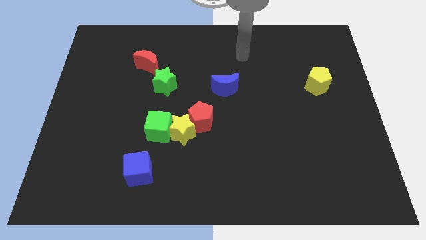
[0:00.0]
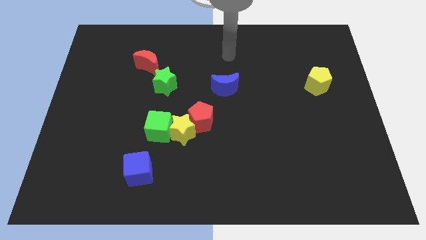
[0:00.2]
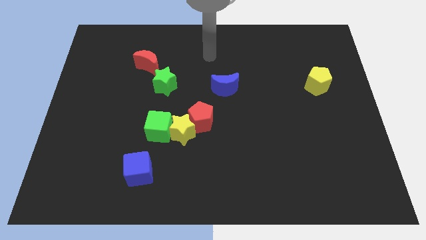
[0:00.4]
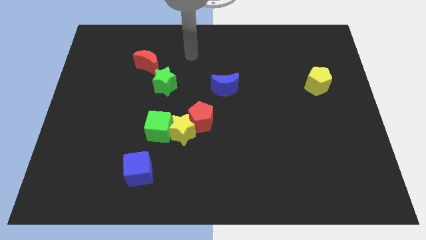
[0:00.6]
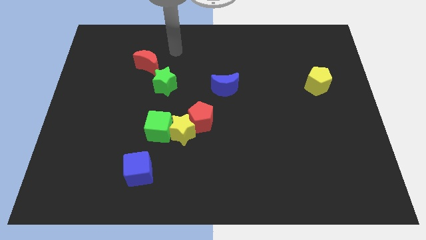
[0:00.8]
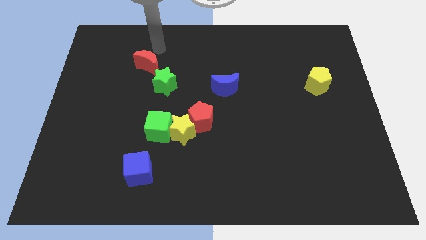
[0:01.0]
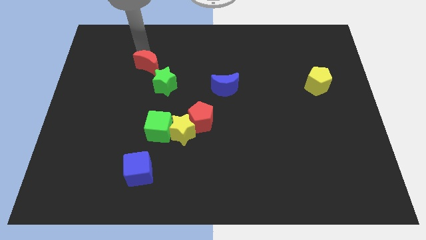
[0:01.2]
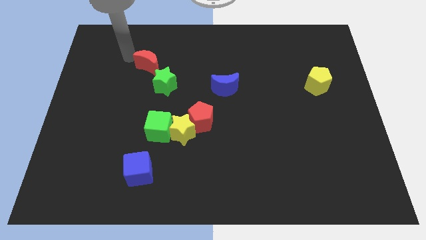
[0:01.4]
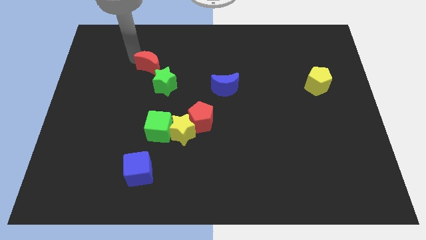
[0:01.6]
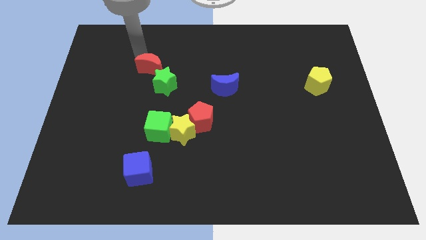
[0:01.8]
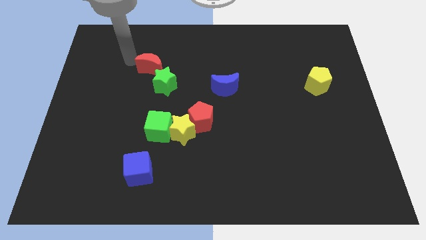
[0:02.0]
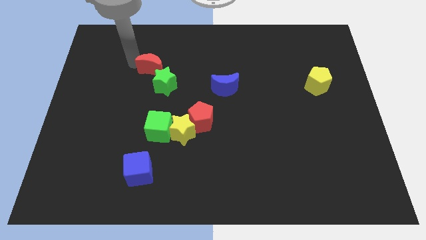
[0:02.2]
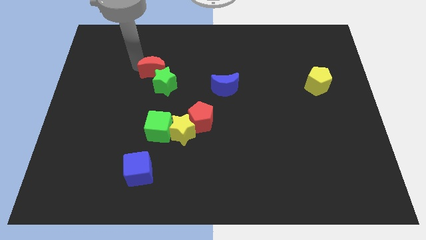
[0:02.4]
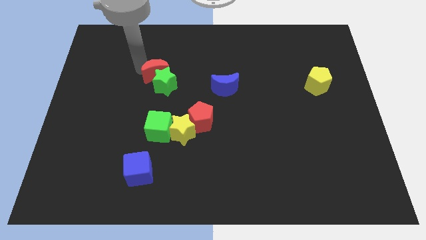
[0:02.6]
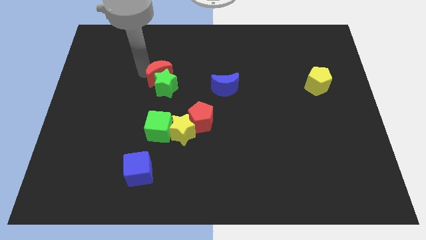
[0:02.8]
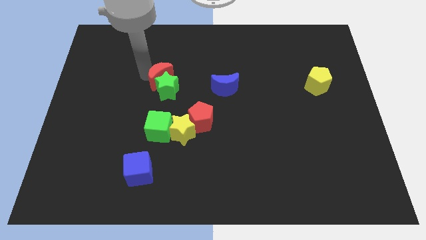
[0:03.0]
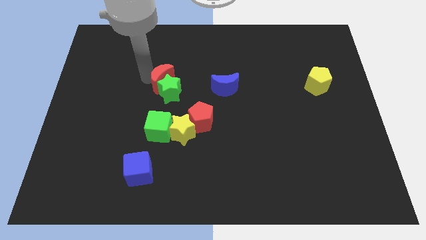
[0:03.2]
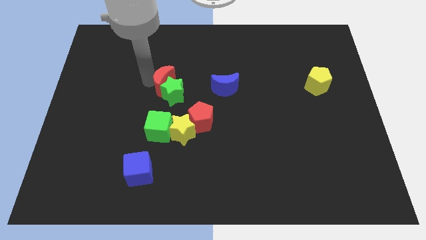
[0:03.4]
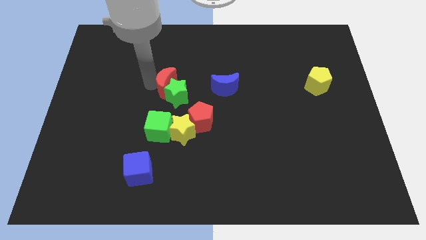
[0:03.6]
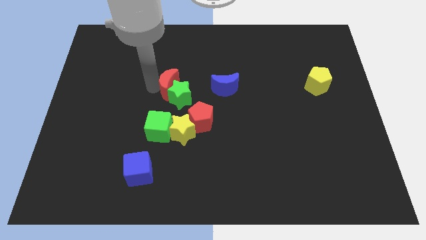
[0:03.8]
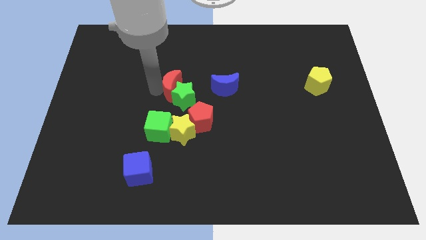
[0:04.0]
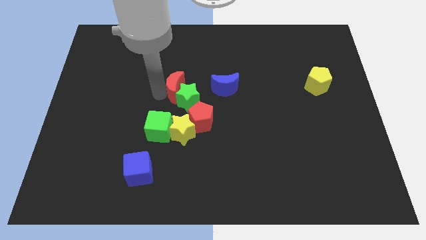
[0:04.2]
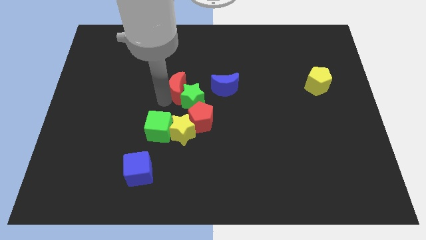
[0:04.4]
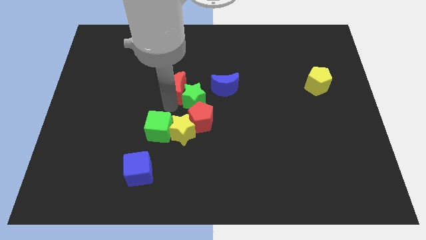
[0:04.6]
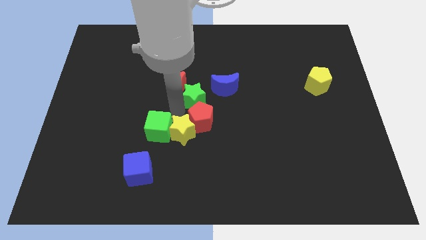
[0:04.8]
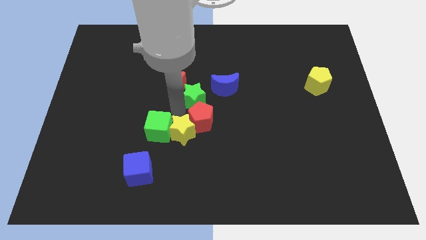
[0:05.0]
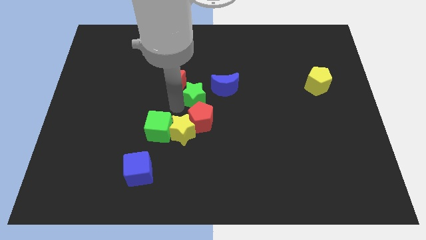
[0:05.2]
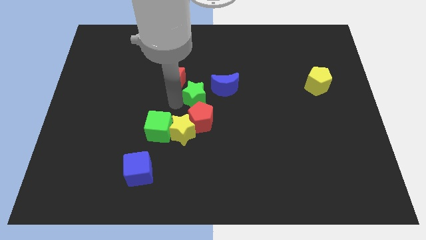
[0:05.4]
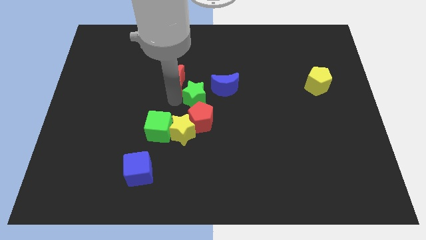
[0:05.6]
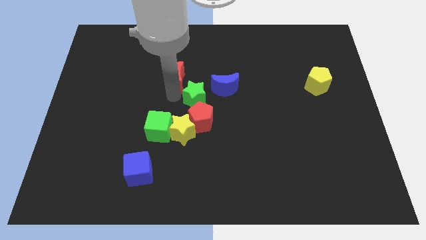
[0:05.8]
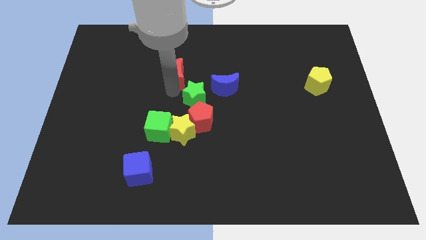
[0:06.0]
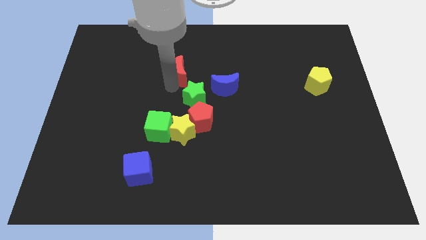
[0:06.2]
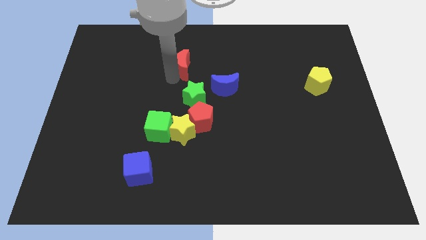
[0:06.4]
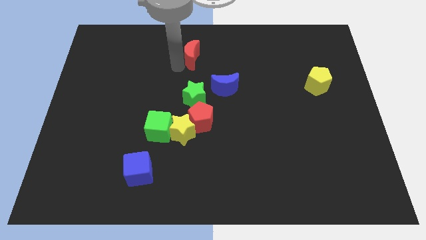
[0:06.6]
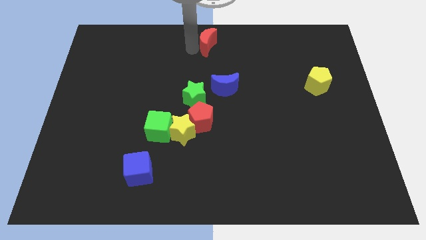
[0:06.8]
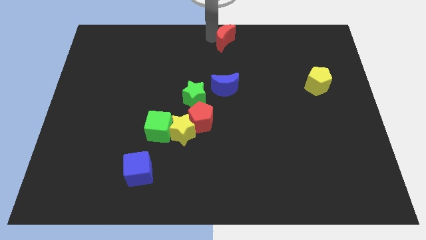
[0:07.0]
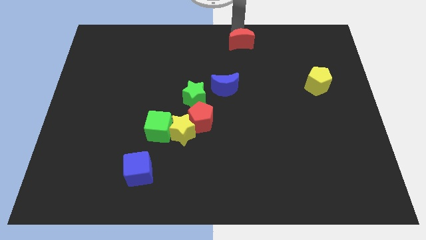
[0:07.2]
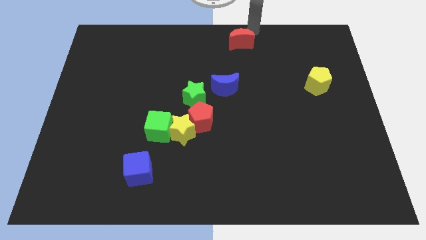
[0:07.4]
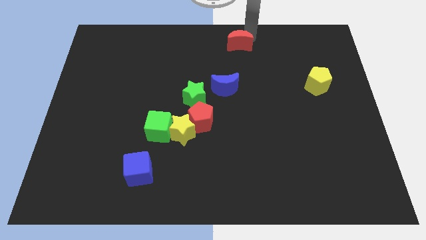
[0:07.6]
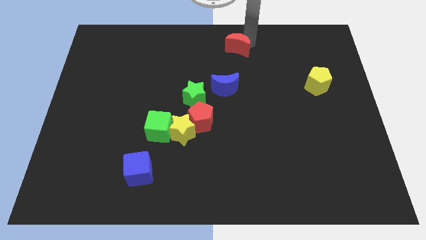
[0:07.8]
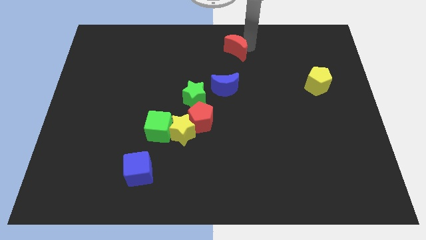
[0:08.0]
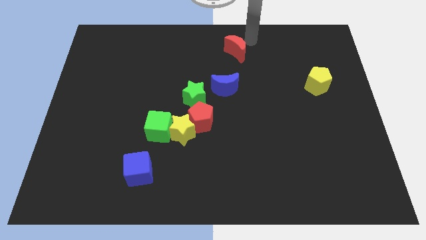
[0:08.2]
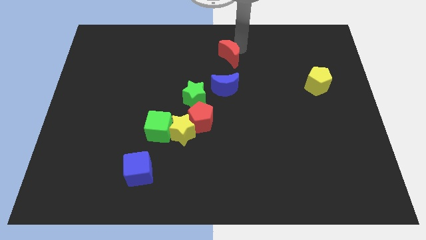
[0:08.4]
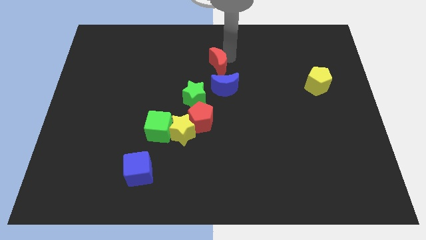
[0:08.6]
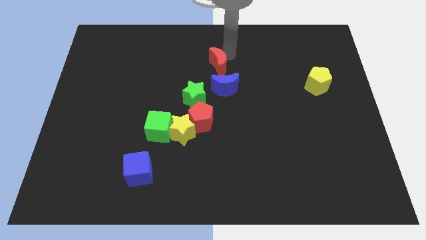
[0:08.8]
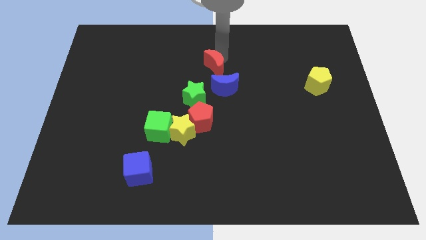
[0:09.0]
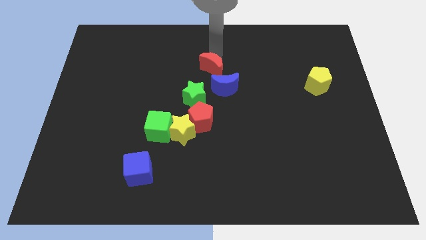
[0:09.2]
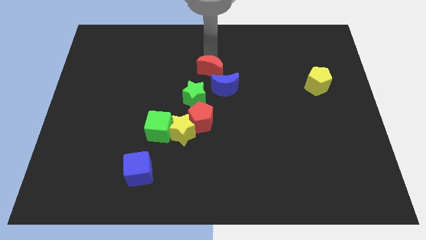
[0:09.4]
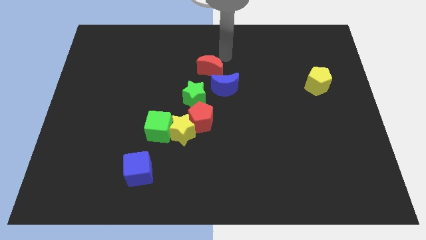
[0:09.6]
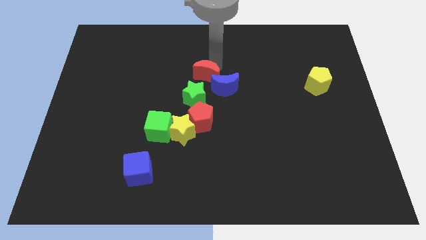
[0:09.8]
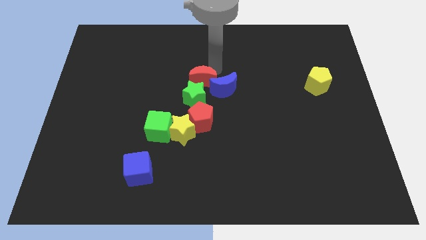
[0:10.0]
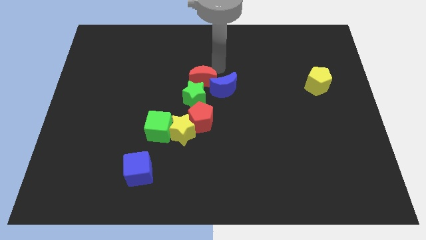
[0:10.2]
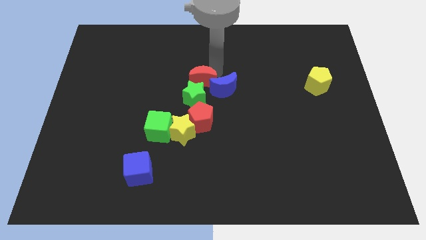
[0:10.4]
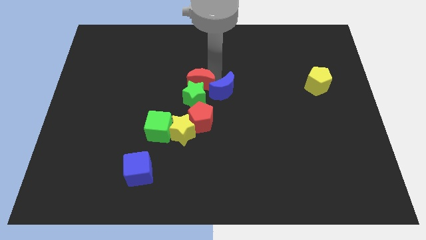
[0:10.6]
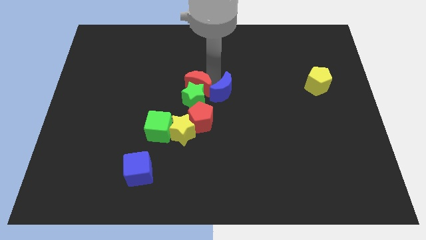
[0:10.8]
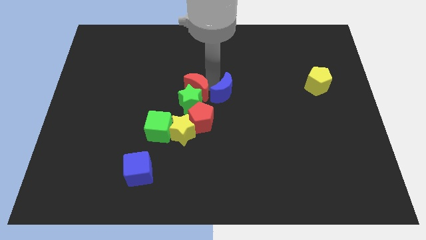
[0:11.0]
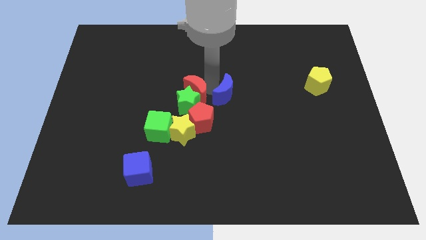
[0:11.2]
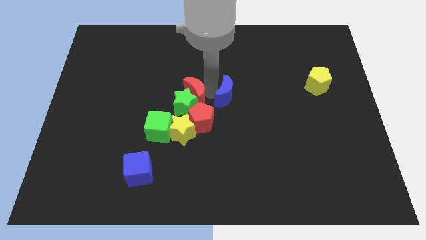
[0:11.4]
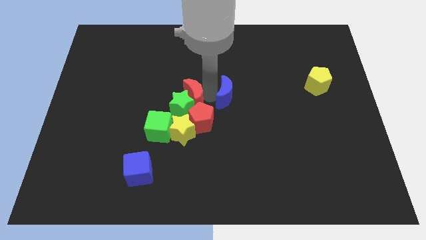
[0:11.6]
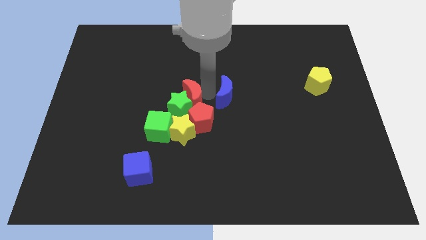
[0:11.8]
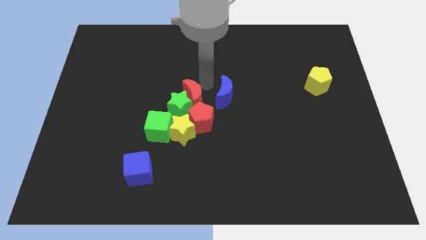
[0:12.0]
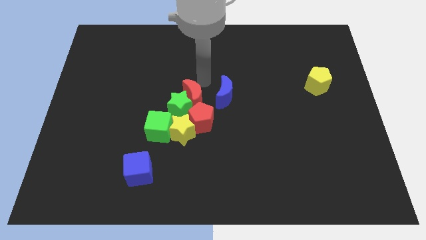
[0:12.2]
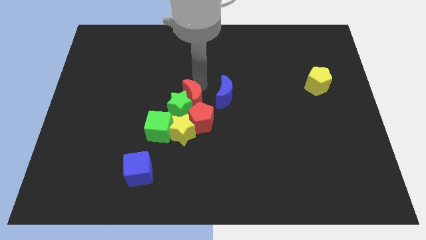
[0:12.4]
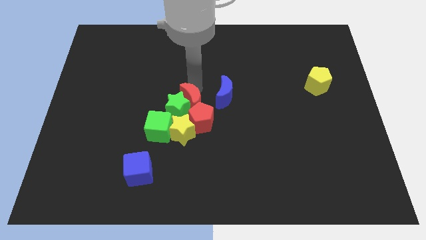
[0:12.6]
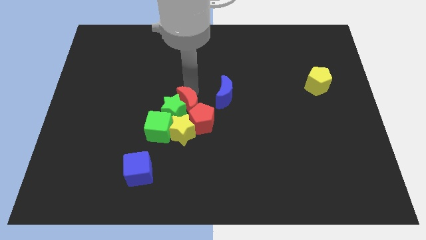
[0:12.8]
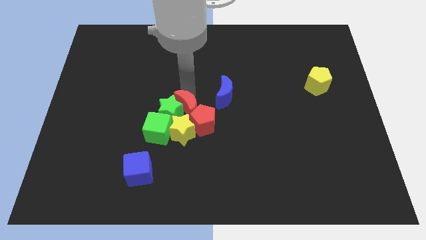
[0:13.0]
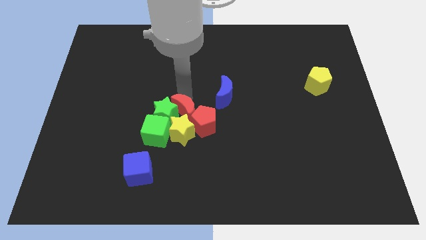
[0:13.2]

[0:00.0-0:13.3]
move the red moon next to the yellow star
